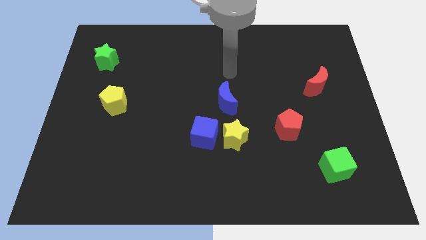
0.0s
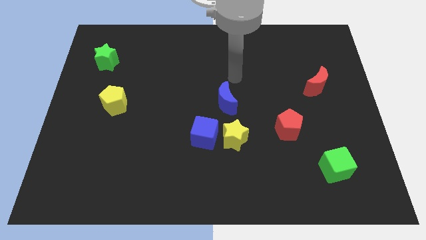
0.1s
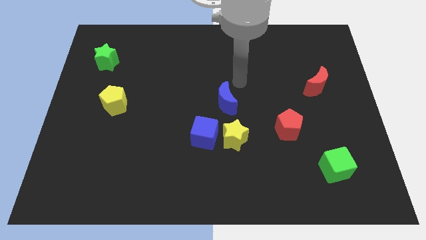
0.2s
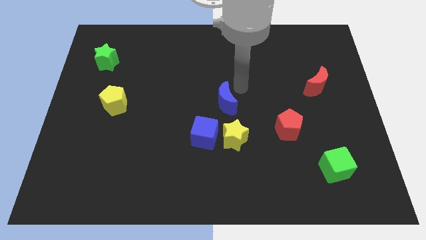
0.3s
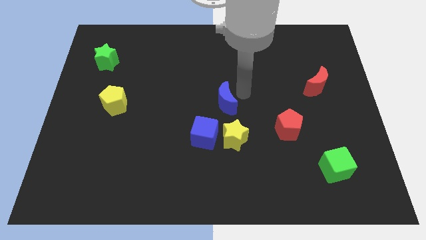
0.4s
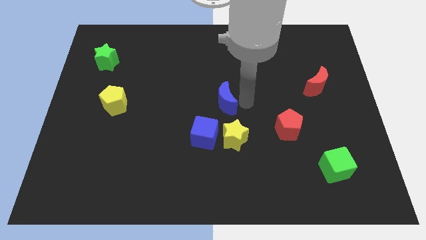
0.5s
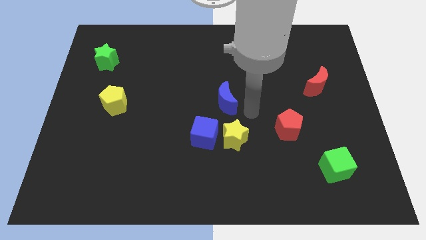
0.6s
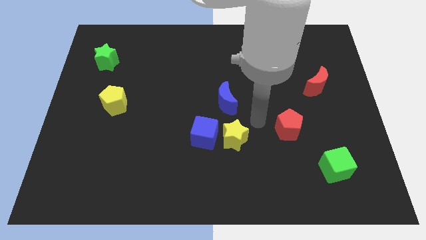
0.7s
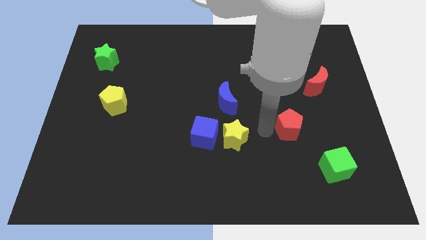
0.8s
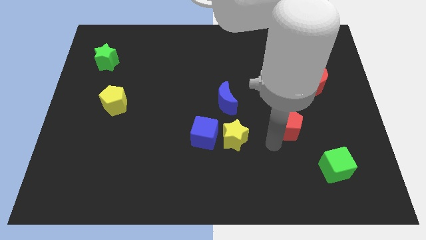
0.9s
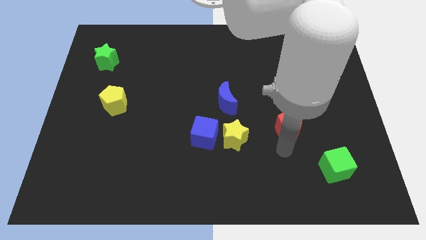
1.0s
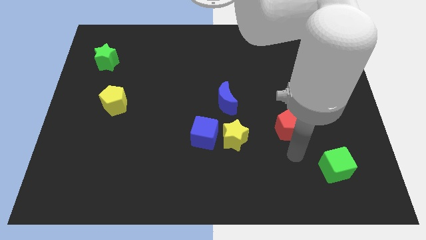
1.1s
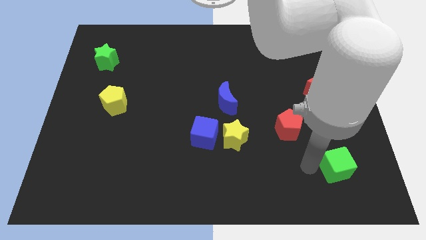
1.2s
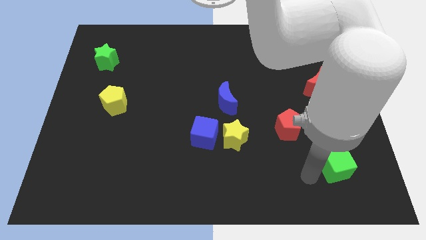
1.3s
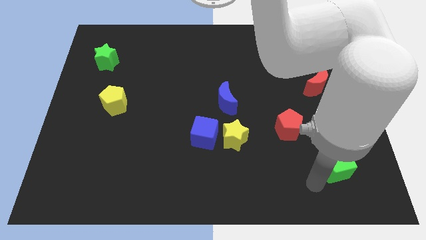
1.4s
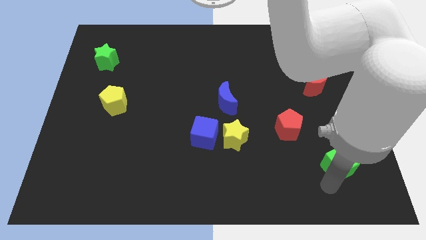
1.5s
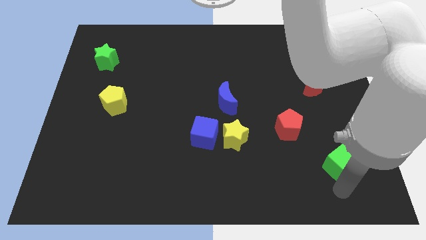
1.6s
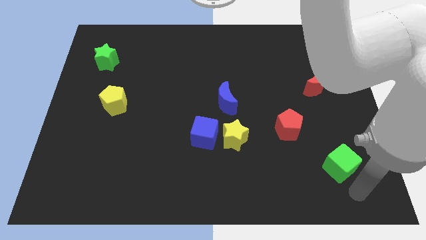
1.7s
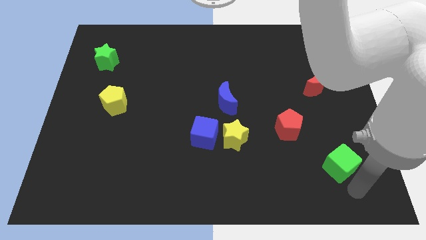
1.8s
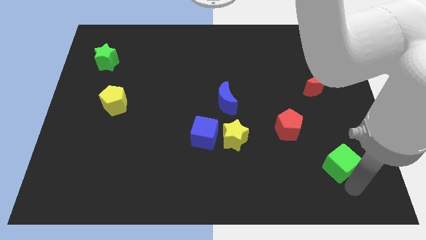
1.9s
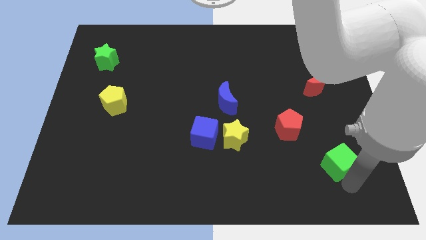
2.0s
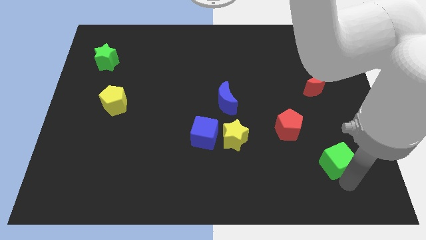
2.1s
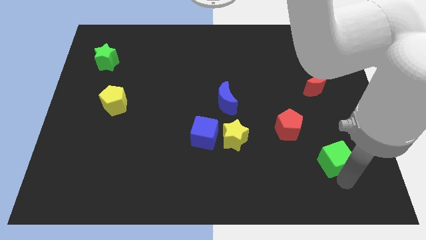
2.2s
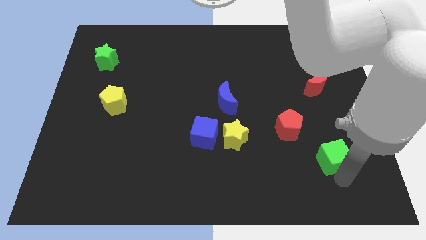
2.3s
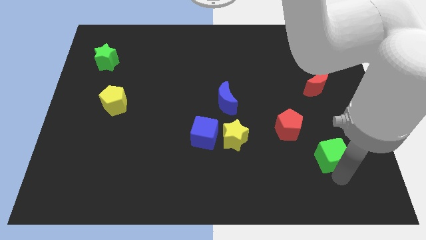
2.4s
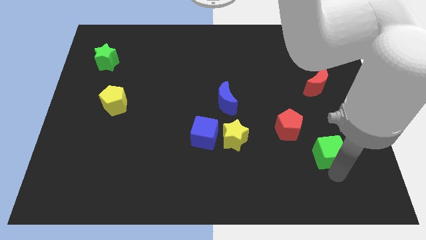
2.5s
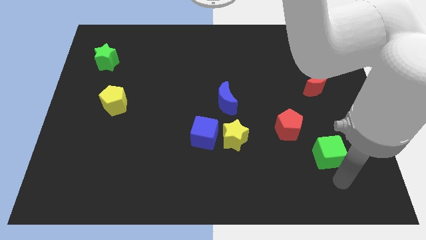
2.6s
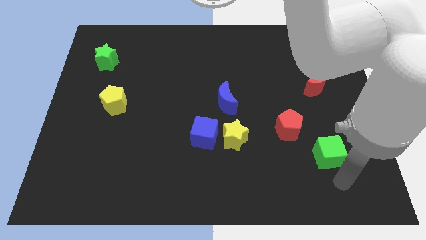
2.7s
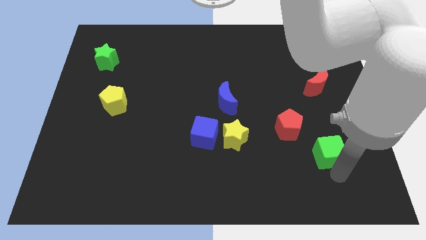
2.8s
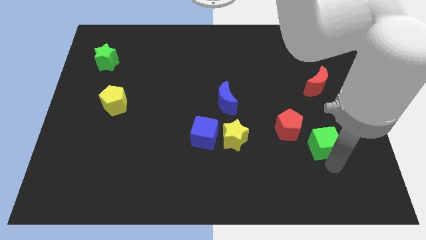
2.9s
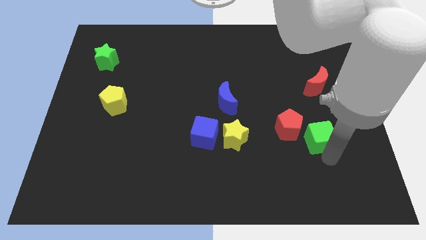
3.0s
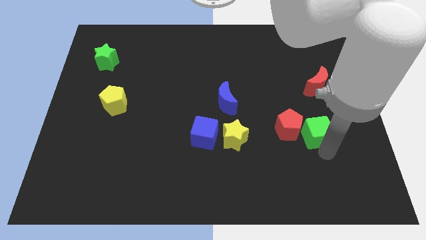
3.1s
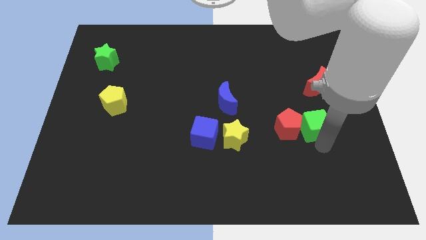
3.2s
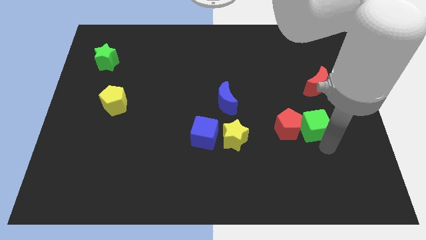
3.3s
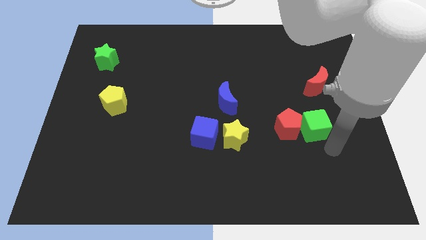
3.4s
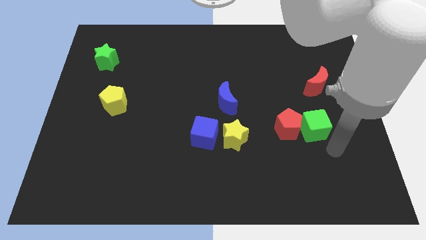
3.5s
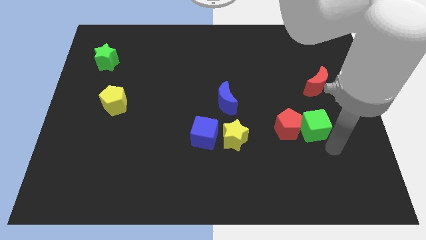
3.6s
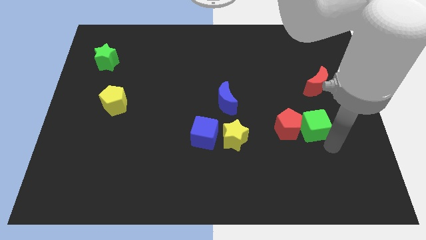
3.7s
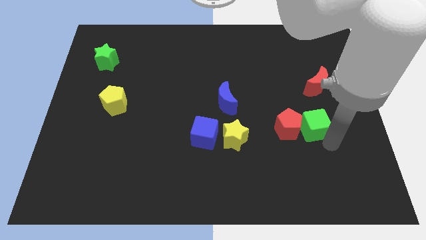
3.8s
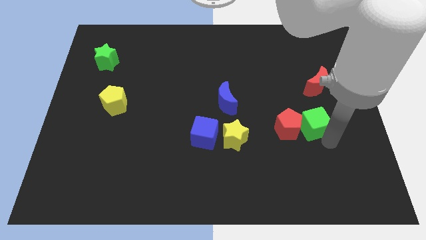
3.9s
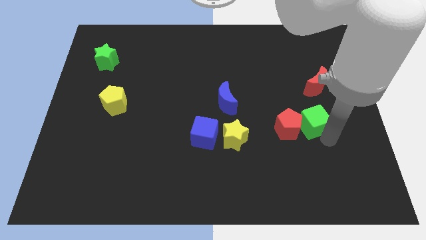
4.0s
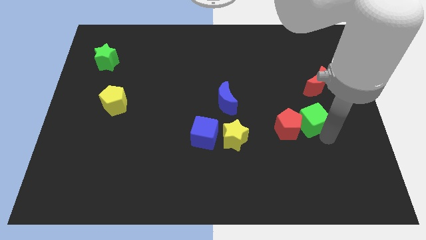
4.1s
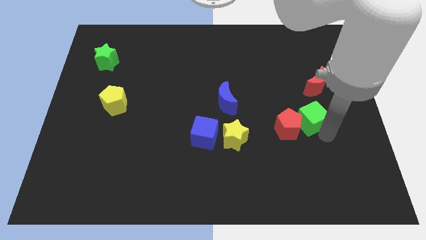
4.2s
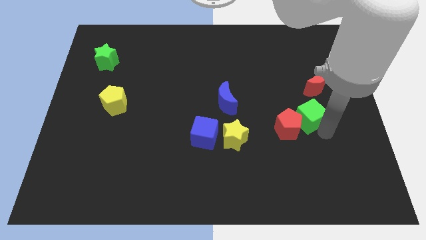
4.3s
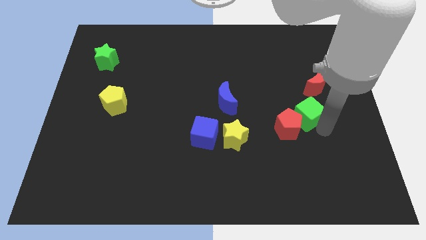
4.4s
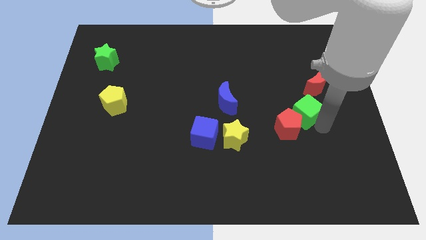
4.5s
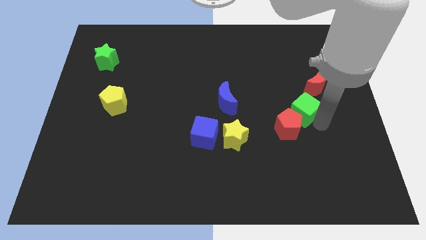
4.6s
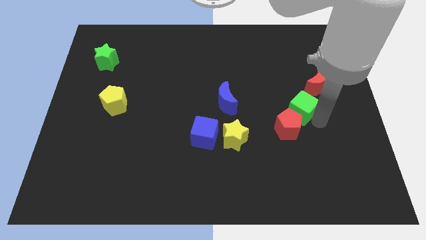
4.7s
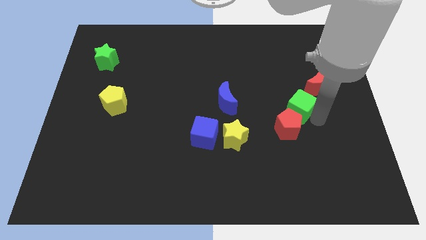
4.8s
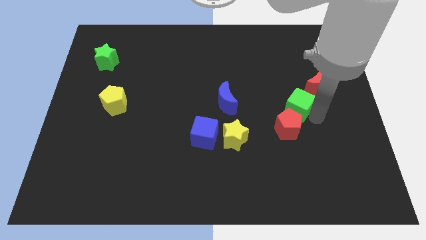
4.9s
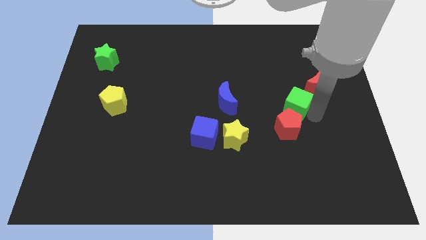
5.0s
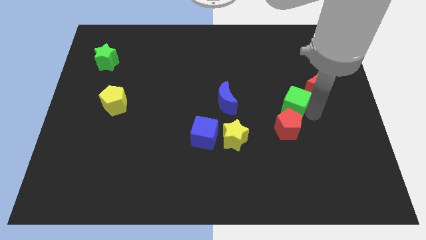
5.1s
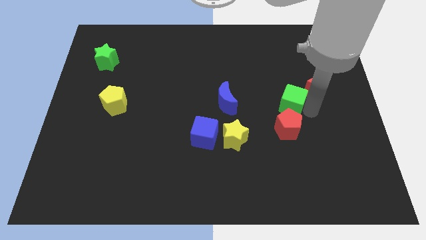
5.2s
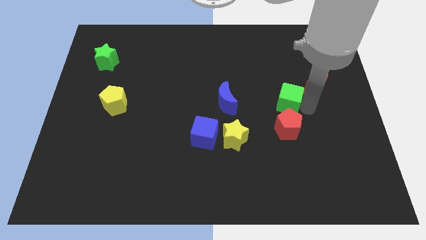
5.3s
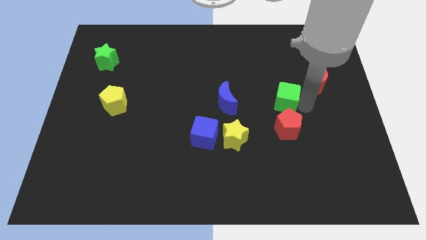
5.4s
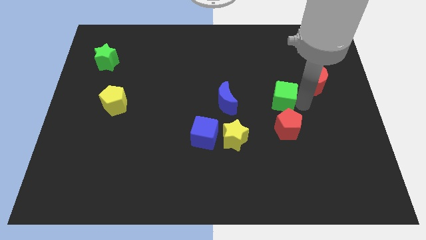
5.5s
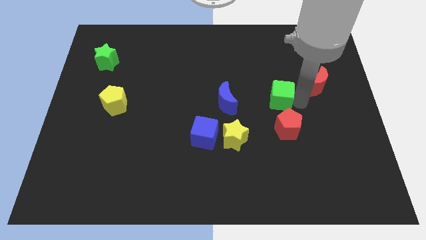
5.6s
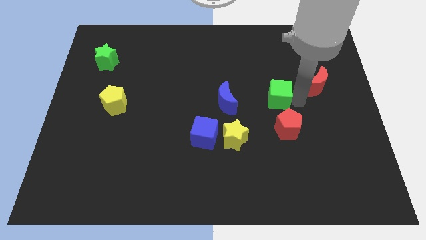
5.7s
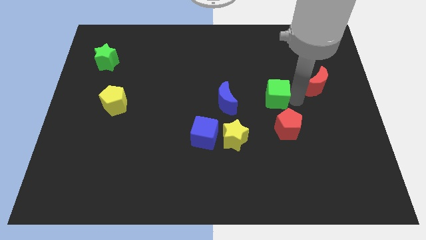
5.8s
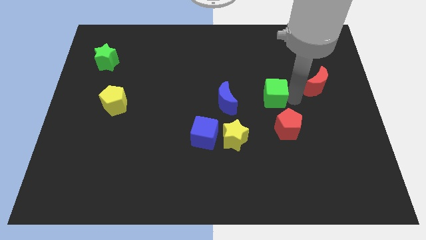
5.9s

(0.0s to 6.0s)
push the green cube diagonally upwards and left

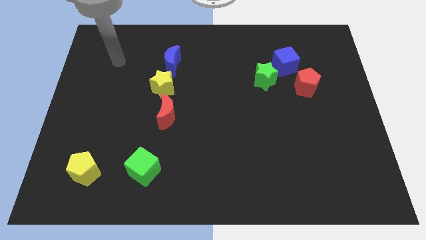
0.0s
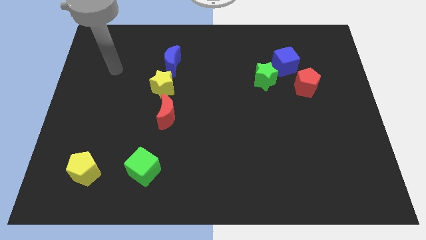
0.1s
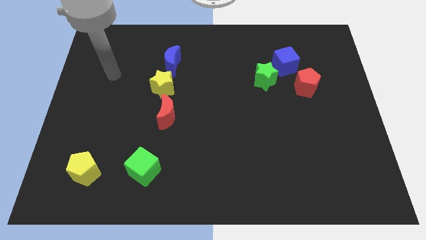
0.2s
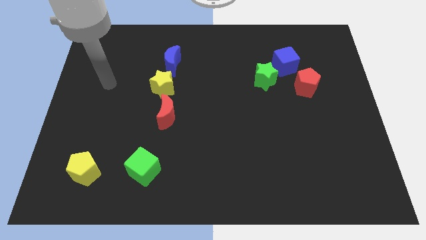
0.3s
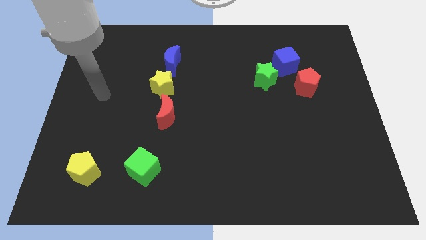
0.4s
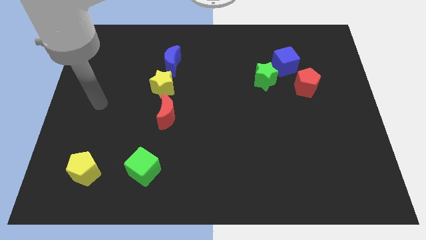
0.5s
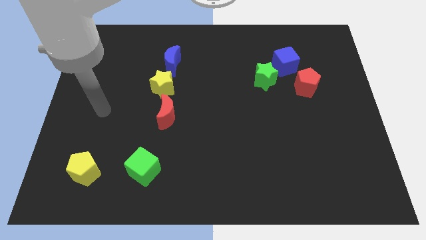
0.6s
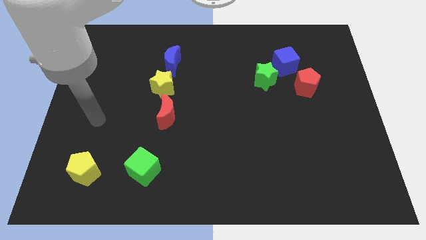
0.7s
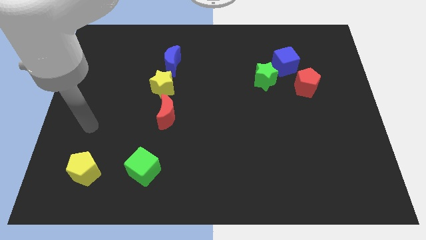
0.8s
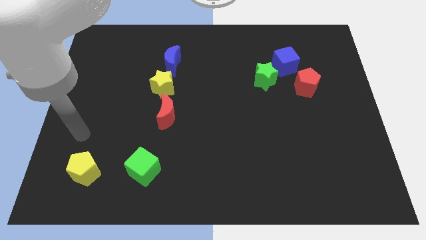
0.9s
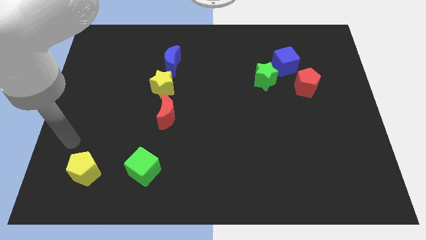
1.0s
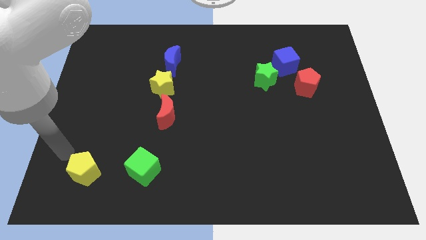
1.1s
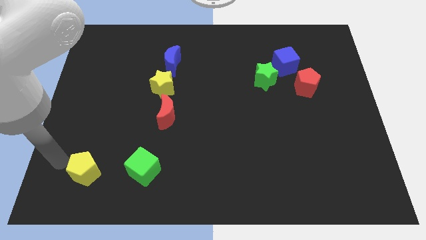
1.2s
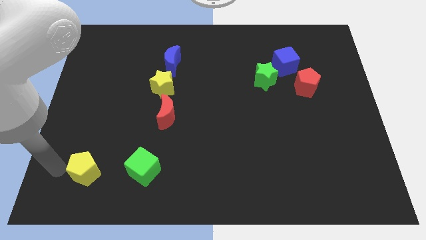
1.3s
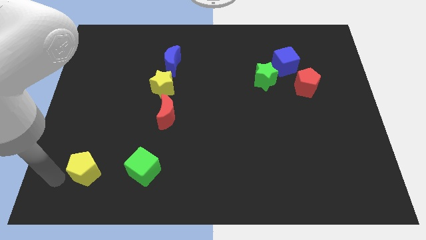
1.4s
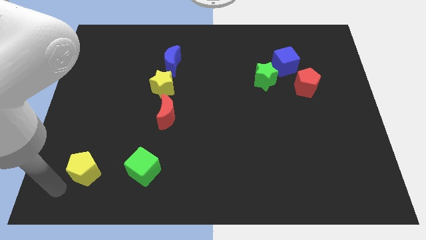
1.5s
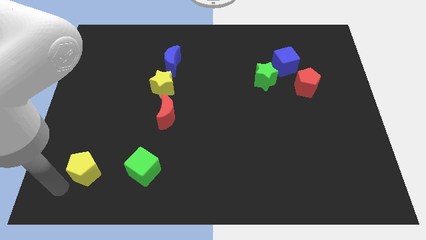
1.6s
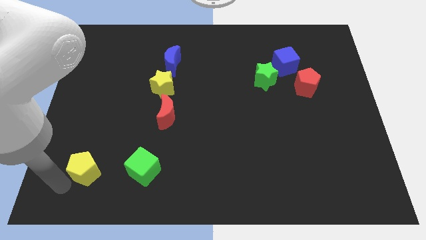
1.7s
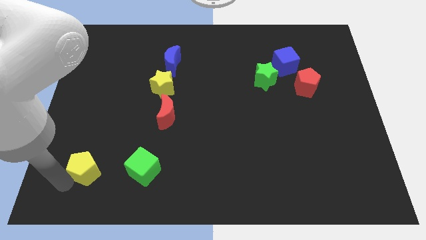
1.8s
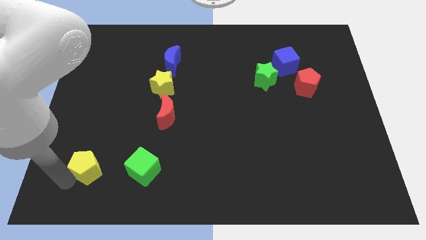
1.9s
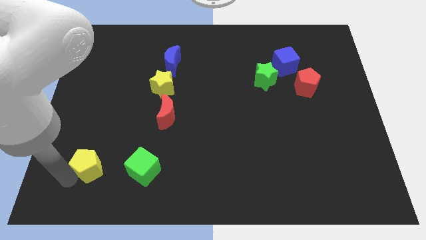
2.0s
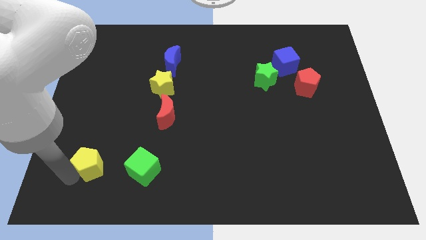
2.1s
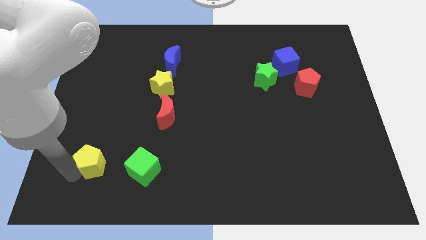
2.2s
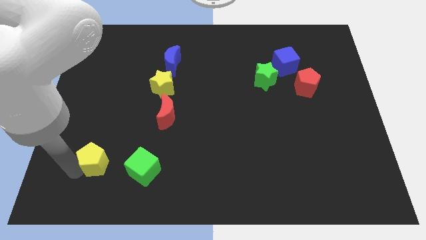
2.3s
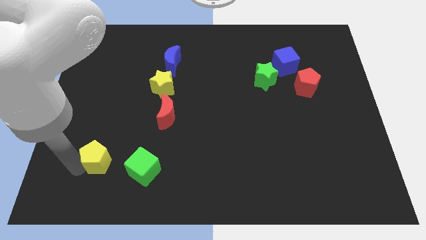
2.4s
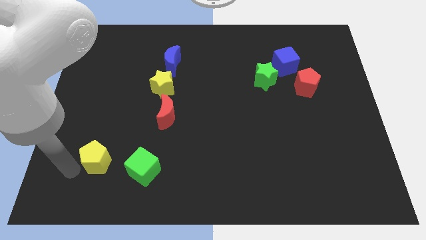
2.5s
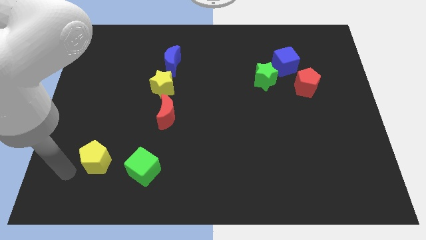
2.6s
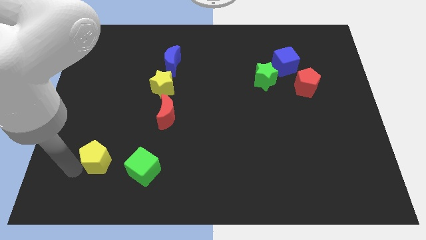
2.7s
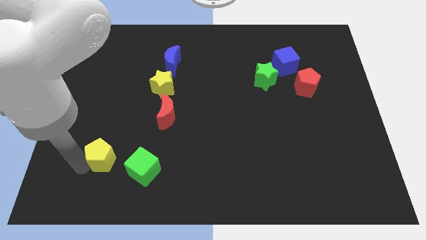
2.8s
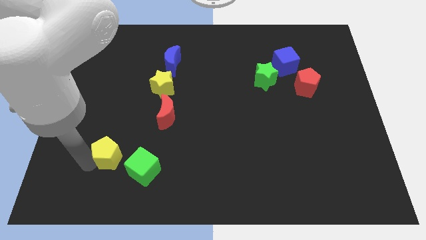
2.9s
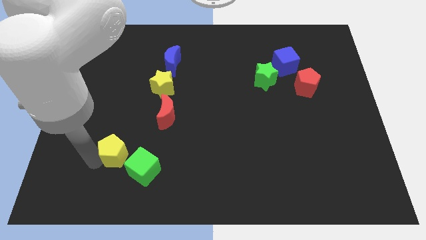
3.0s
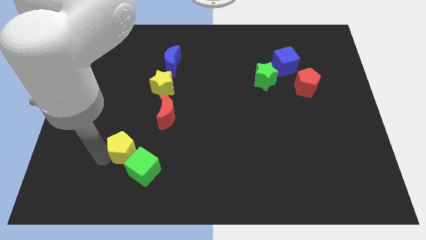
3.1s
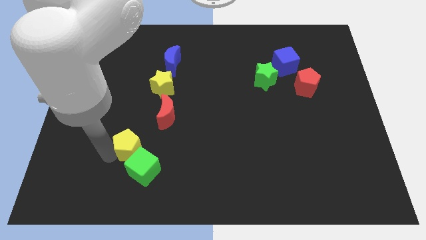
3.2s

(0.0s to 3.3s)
slightly slide the yellow pentagon right
